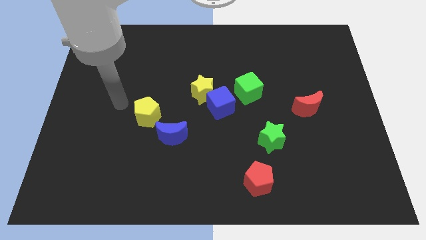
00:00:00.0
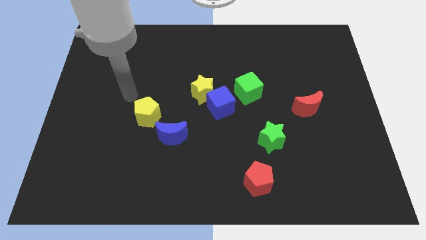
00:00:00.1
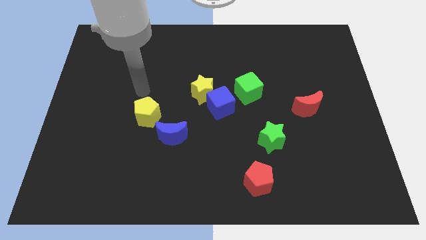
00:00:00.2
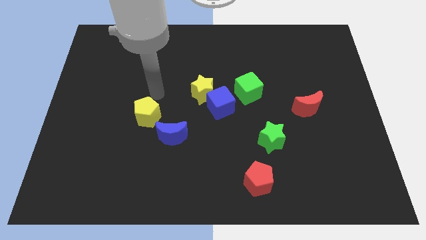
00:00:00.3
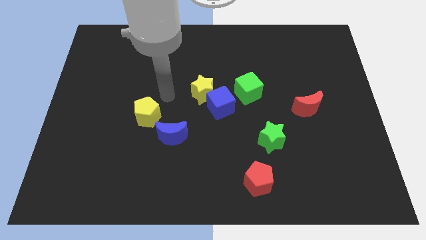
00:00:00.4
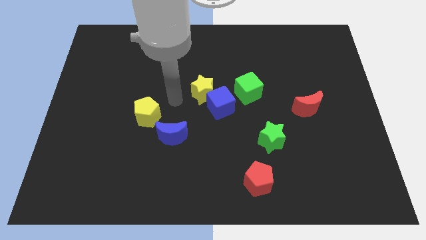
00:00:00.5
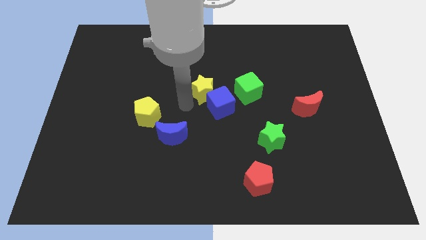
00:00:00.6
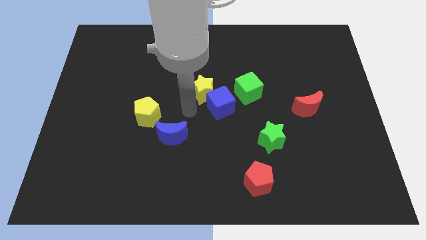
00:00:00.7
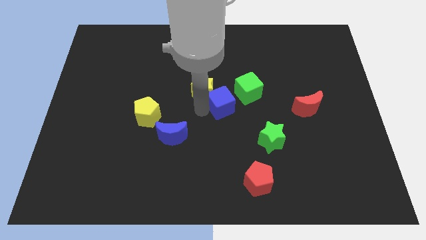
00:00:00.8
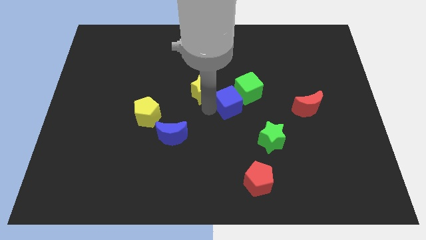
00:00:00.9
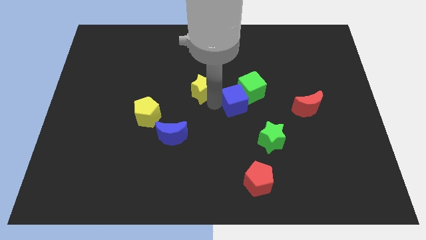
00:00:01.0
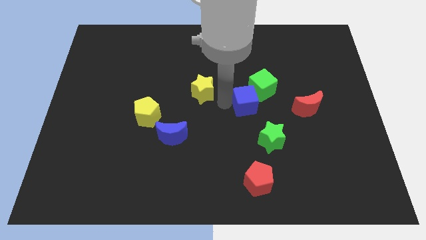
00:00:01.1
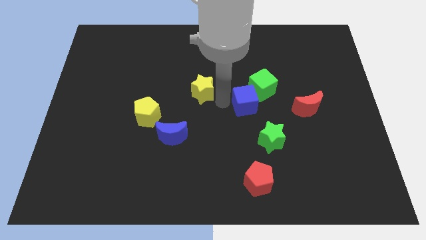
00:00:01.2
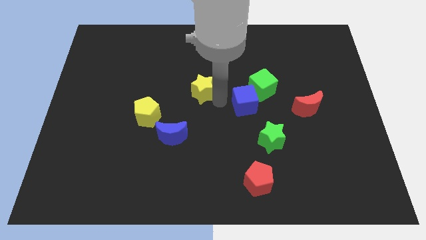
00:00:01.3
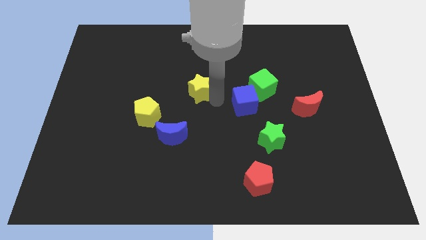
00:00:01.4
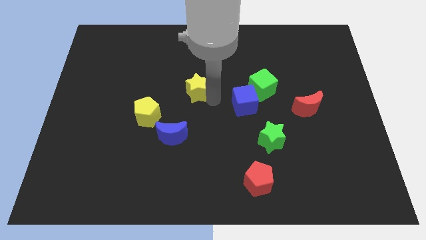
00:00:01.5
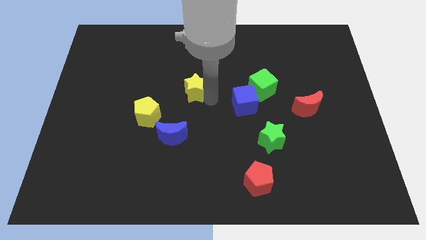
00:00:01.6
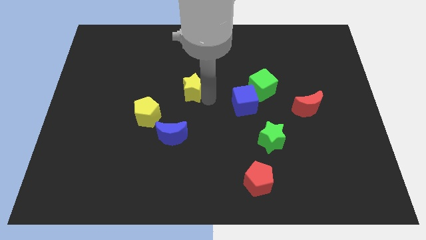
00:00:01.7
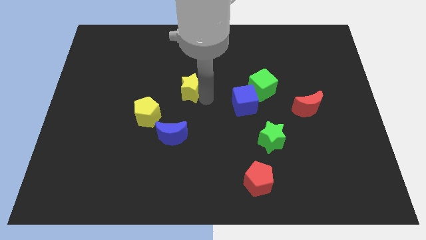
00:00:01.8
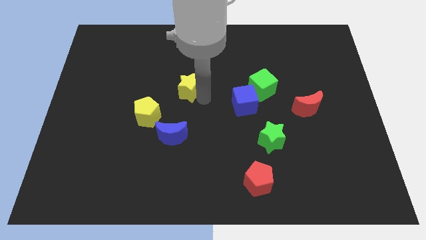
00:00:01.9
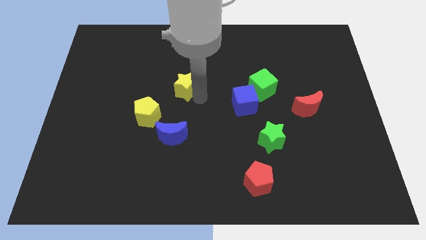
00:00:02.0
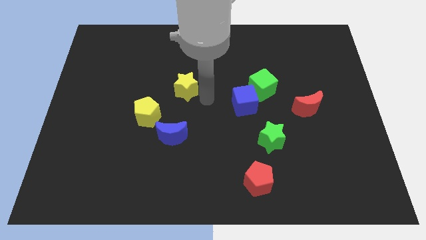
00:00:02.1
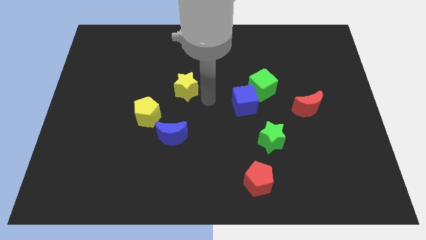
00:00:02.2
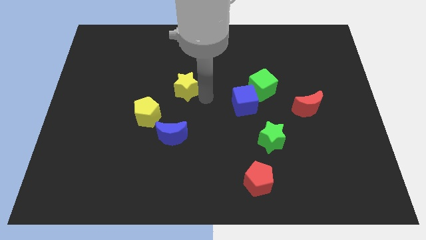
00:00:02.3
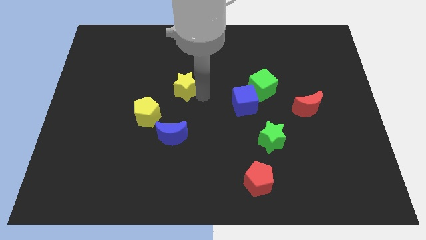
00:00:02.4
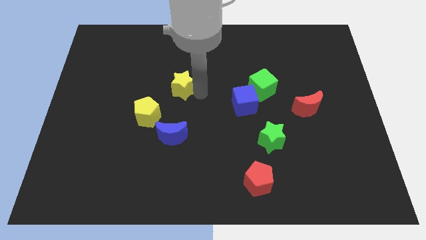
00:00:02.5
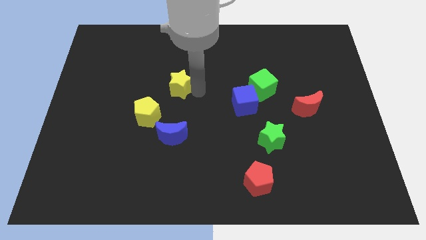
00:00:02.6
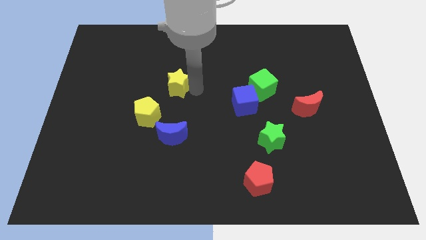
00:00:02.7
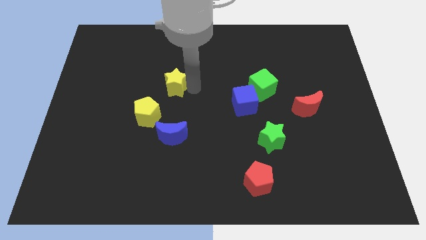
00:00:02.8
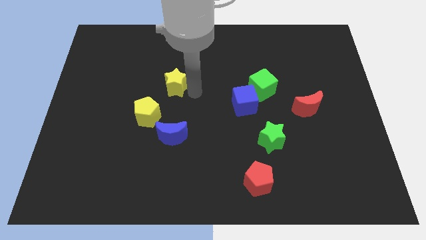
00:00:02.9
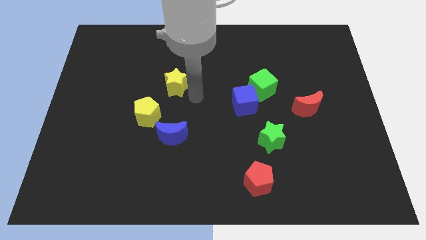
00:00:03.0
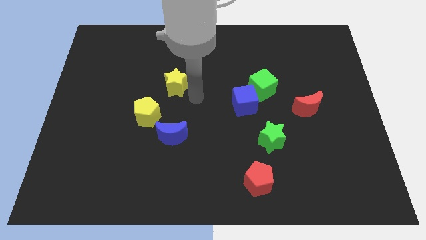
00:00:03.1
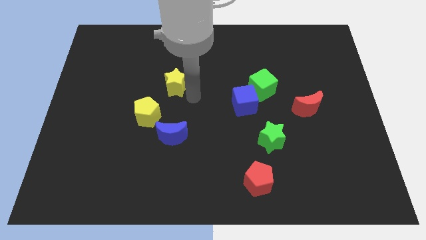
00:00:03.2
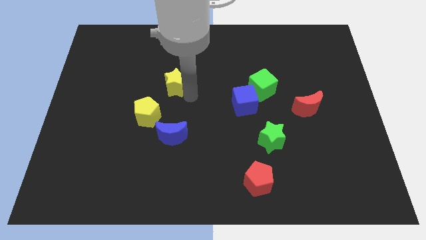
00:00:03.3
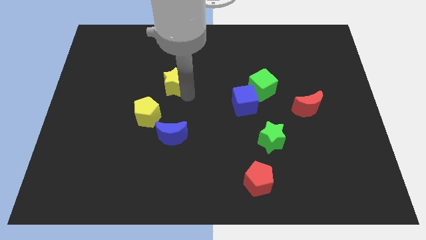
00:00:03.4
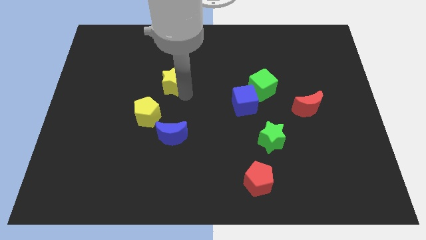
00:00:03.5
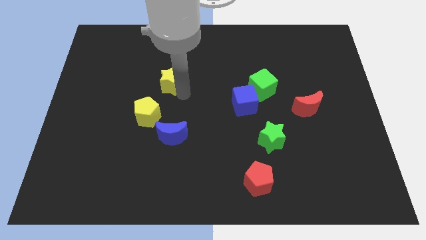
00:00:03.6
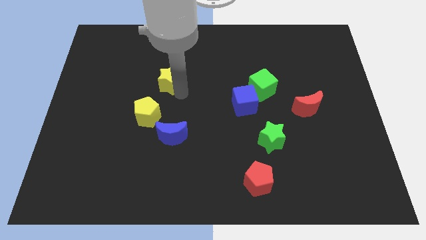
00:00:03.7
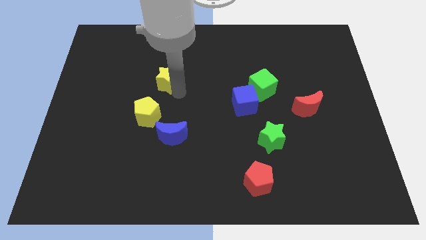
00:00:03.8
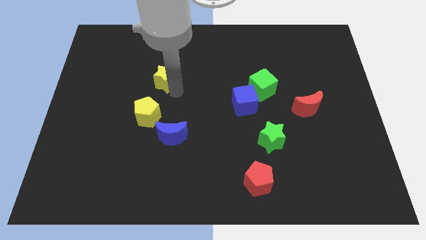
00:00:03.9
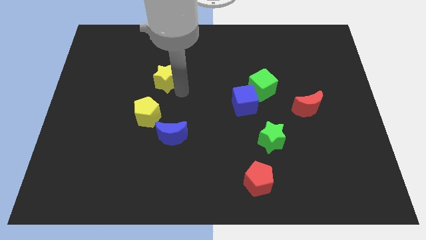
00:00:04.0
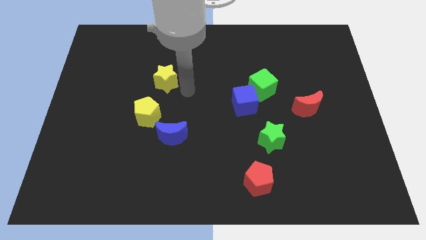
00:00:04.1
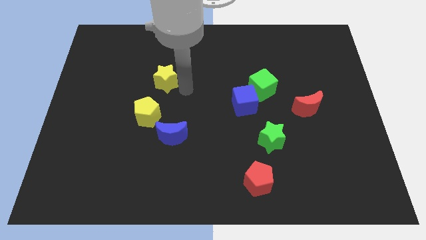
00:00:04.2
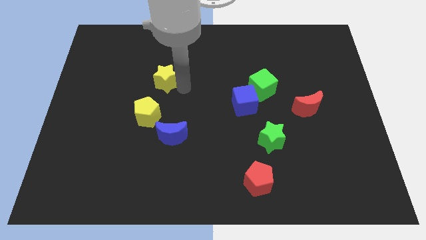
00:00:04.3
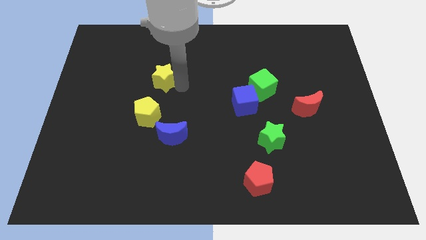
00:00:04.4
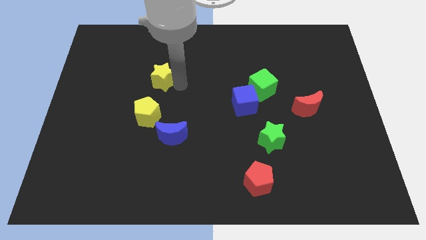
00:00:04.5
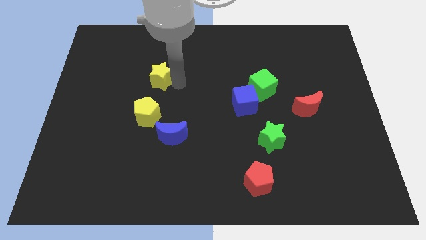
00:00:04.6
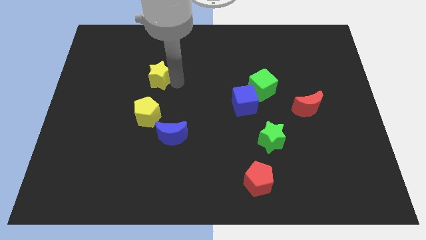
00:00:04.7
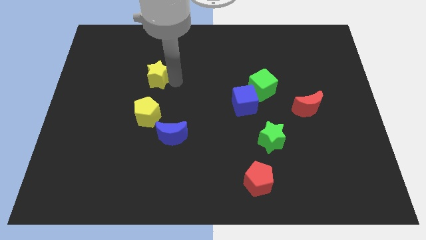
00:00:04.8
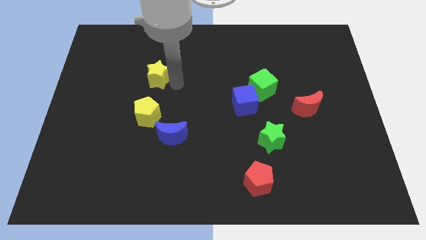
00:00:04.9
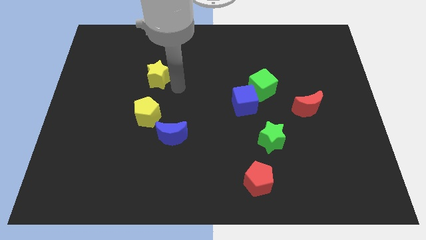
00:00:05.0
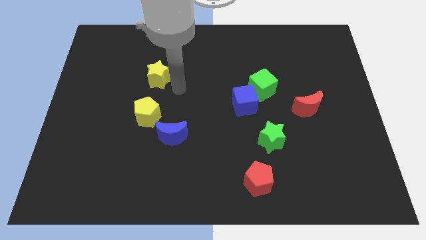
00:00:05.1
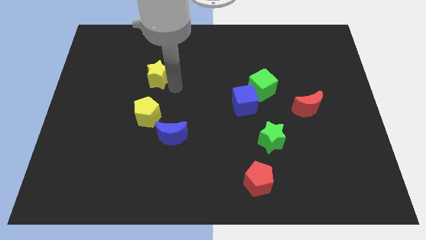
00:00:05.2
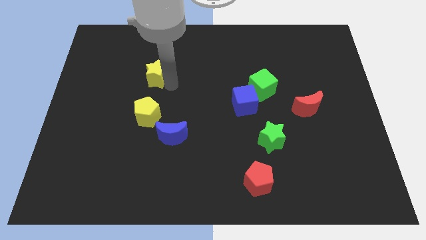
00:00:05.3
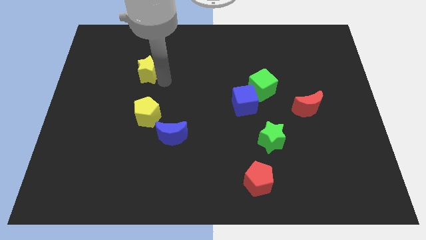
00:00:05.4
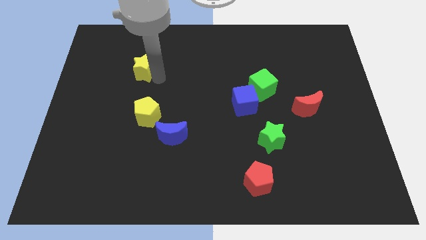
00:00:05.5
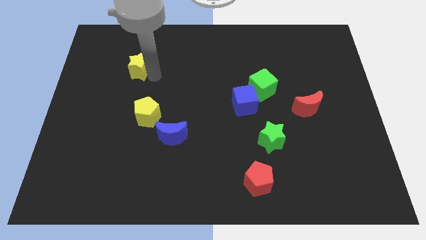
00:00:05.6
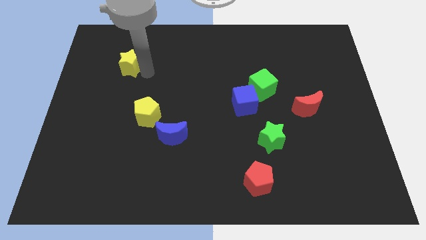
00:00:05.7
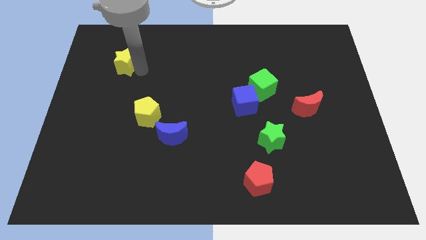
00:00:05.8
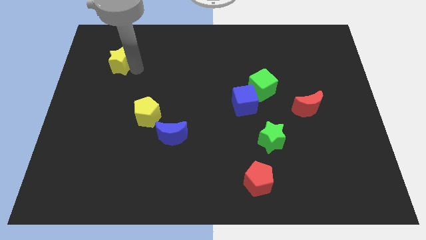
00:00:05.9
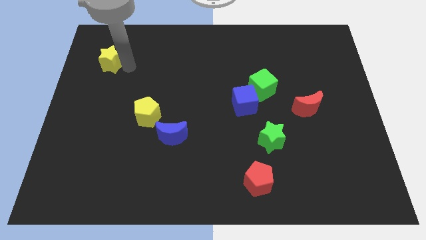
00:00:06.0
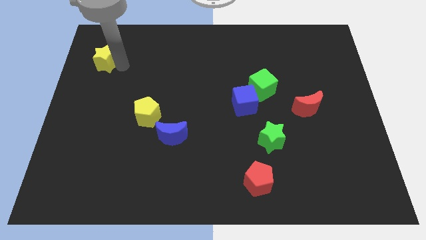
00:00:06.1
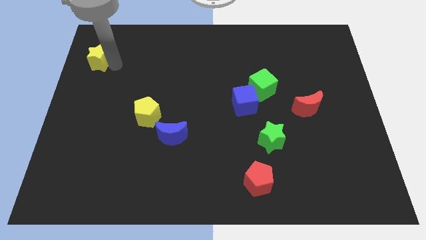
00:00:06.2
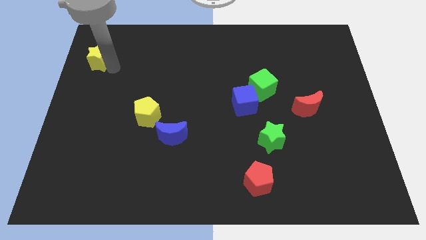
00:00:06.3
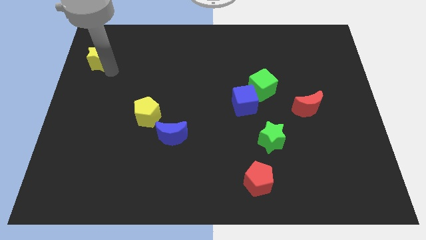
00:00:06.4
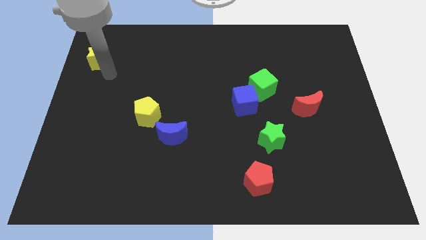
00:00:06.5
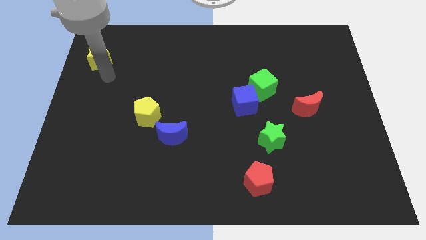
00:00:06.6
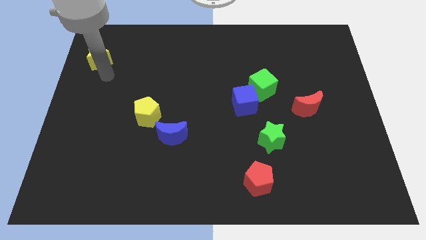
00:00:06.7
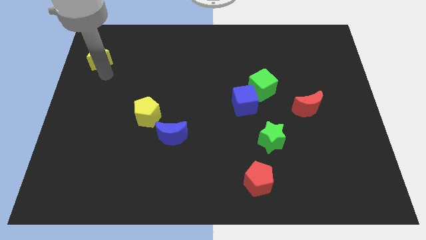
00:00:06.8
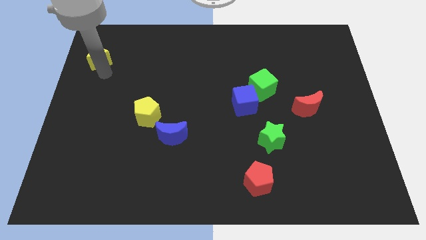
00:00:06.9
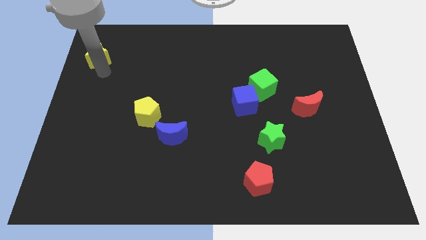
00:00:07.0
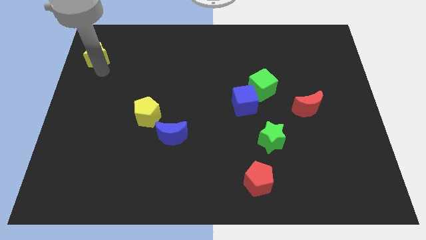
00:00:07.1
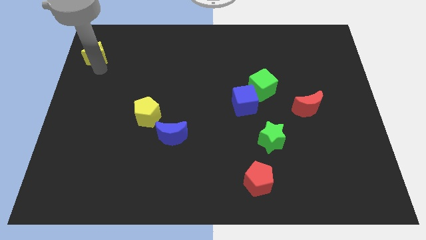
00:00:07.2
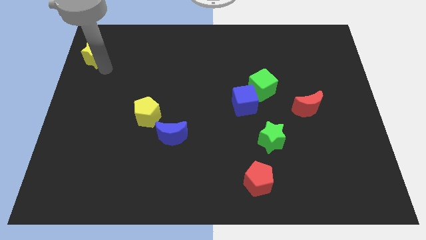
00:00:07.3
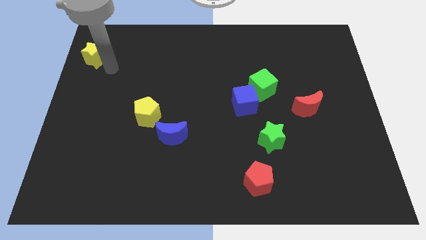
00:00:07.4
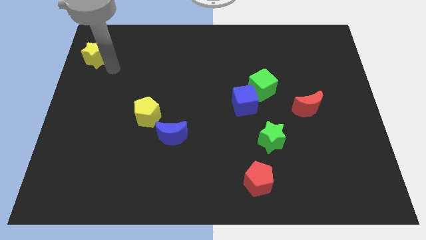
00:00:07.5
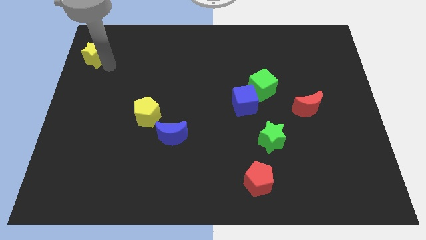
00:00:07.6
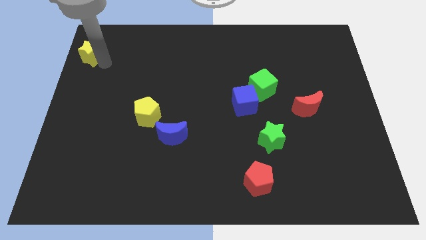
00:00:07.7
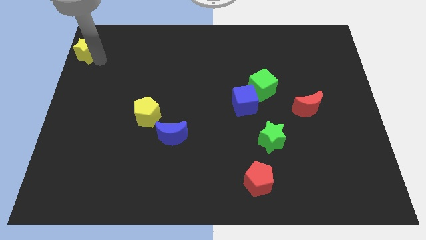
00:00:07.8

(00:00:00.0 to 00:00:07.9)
move the yellow star to the upper left corner
